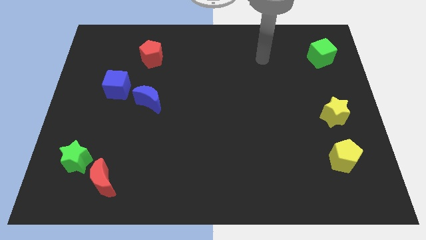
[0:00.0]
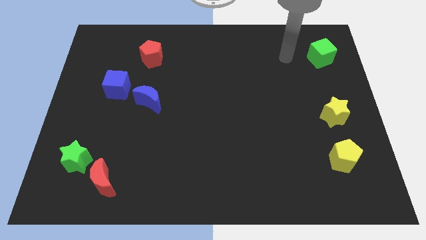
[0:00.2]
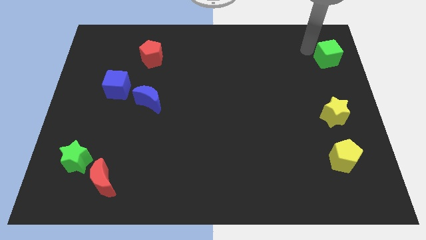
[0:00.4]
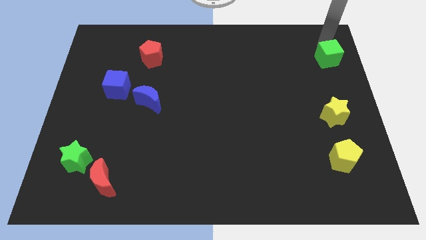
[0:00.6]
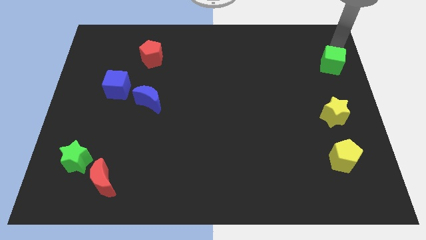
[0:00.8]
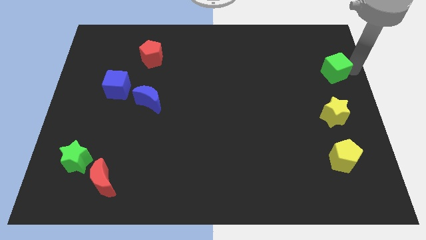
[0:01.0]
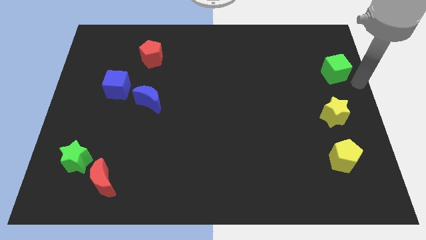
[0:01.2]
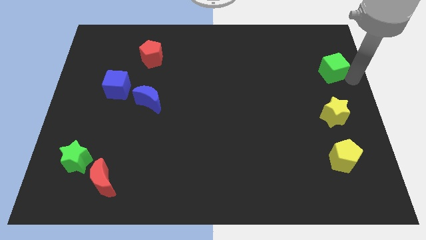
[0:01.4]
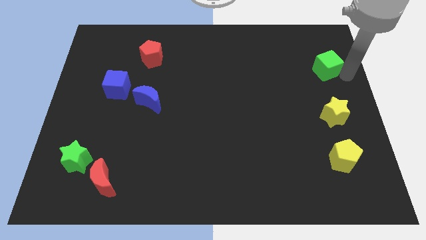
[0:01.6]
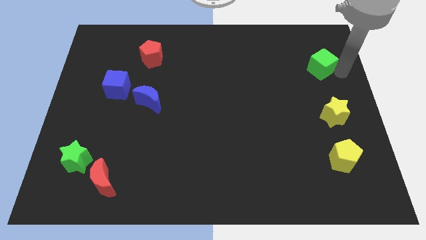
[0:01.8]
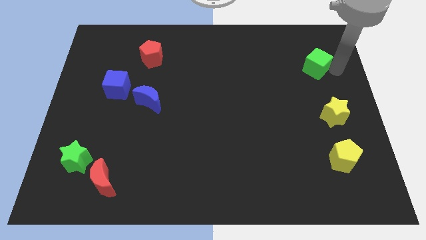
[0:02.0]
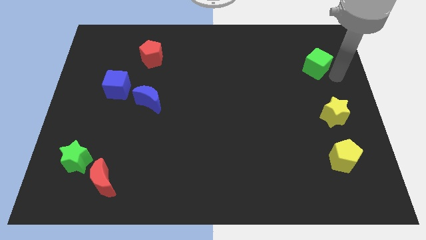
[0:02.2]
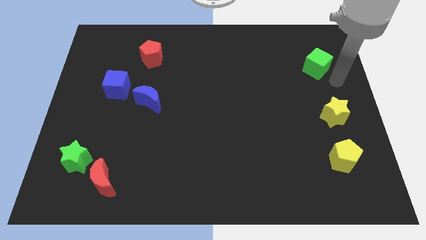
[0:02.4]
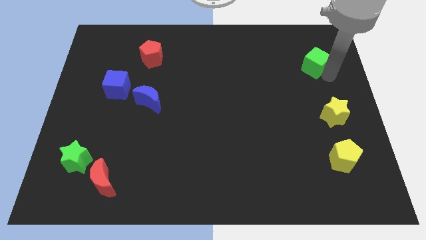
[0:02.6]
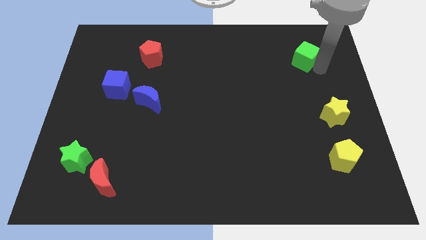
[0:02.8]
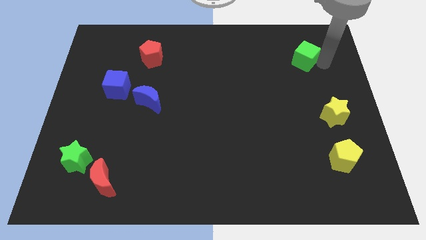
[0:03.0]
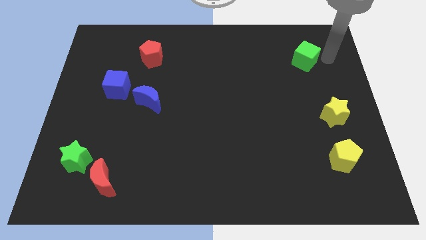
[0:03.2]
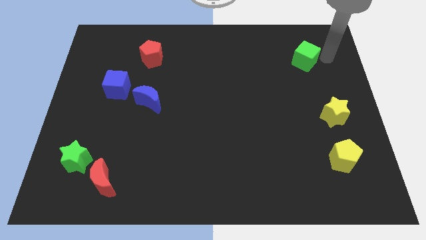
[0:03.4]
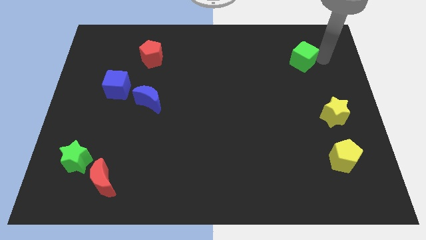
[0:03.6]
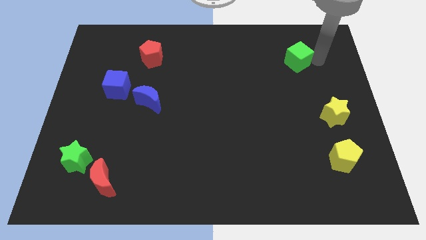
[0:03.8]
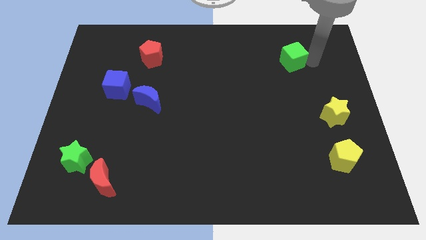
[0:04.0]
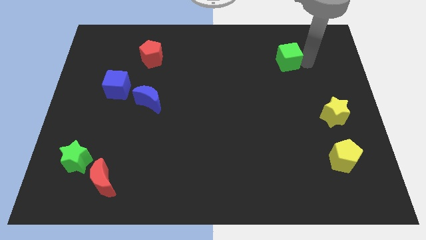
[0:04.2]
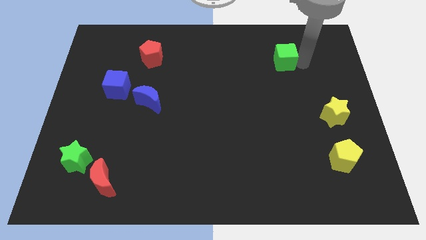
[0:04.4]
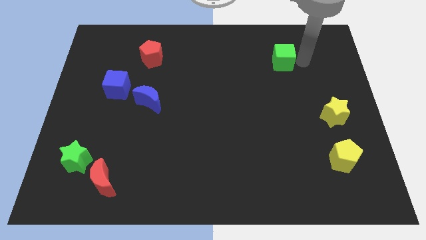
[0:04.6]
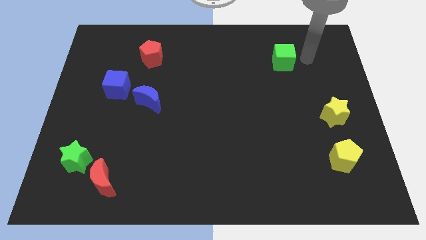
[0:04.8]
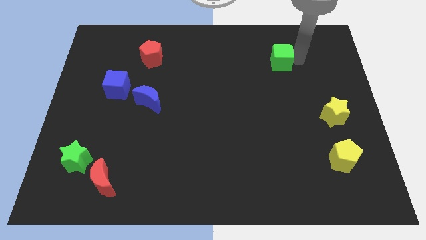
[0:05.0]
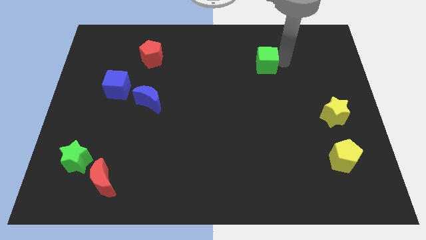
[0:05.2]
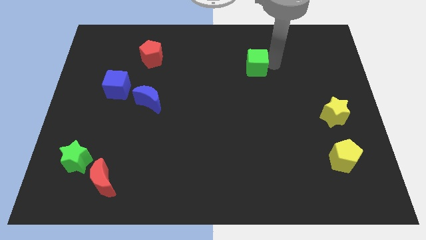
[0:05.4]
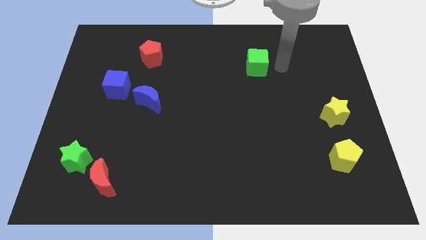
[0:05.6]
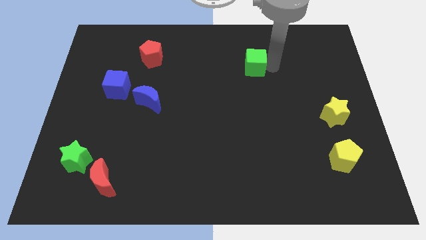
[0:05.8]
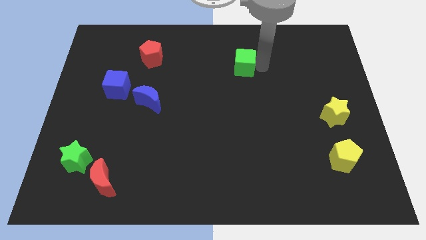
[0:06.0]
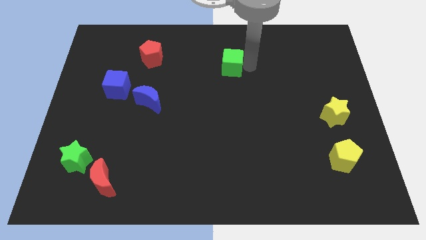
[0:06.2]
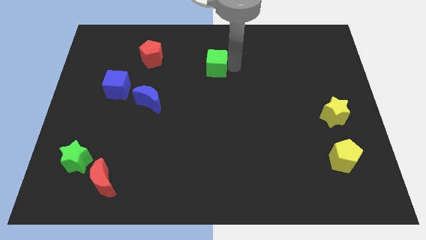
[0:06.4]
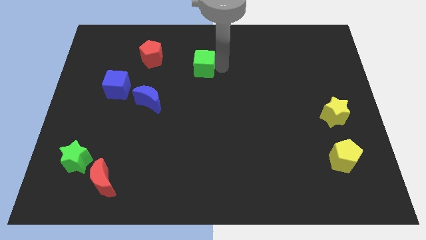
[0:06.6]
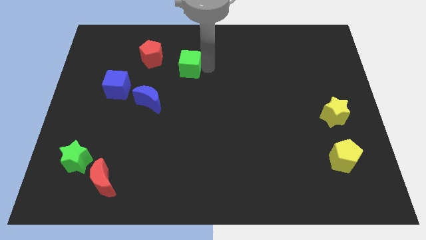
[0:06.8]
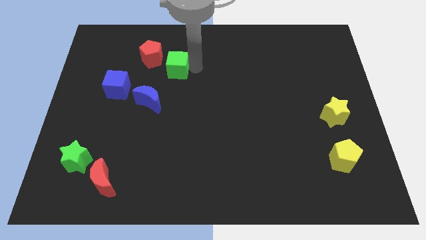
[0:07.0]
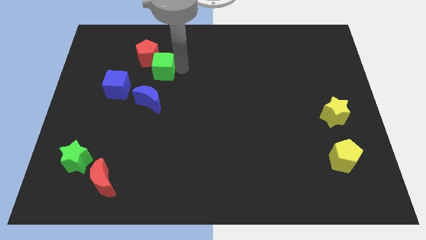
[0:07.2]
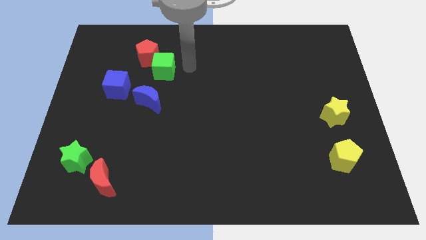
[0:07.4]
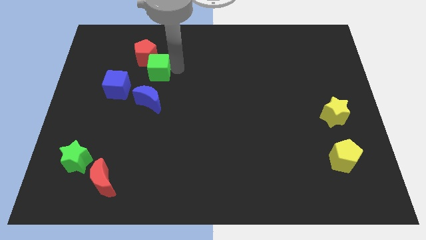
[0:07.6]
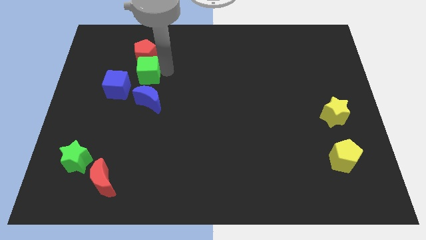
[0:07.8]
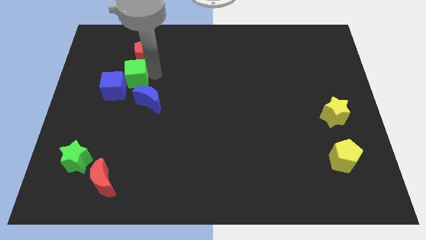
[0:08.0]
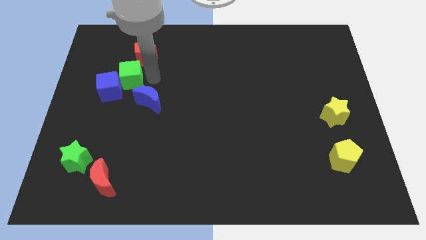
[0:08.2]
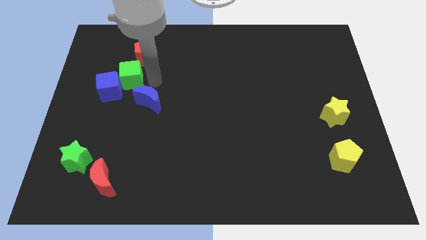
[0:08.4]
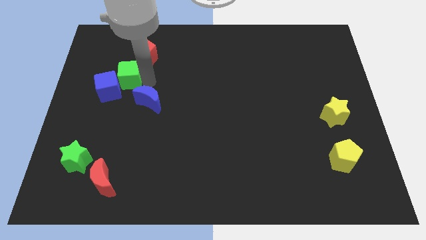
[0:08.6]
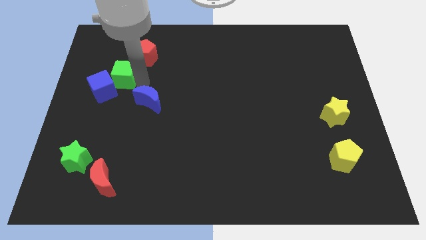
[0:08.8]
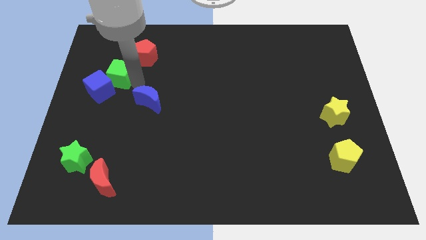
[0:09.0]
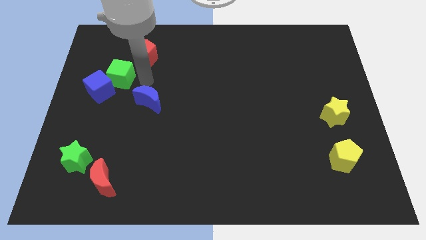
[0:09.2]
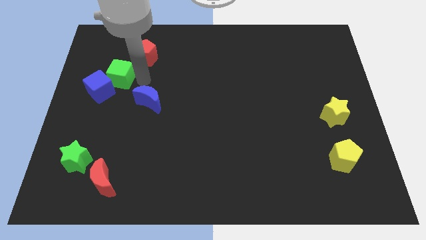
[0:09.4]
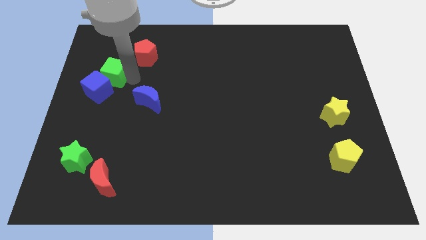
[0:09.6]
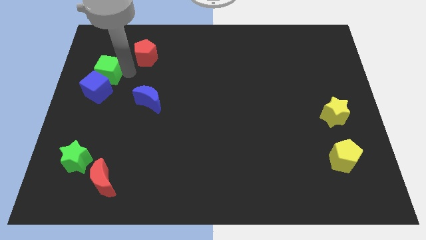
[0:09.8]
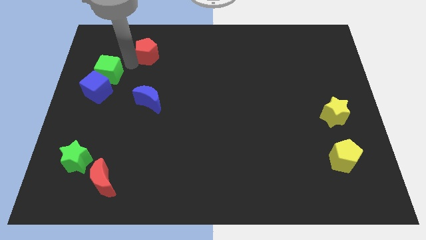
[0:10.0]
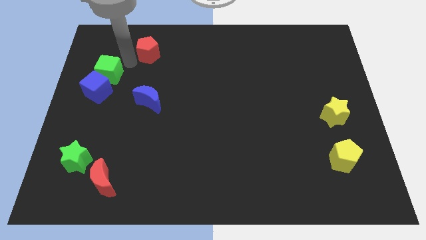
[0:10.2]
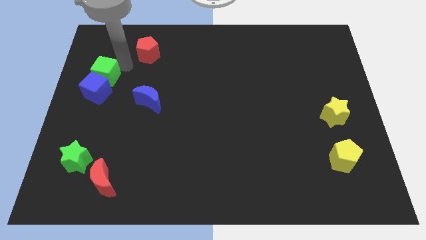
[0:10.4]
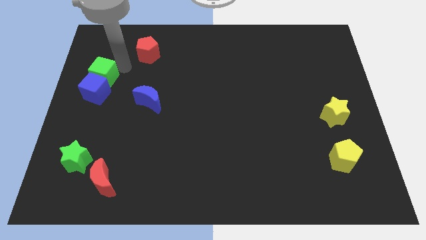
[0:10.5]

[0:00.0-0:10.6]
slide the green cube to the left side

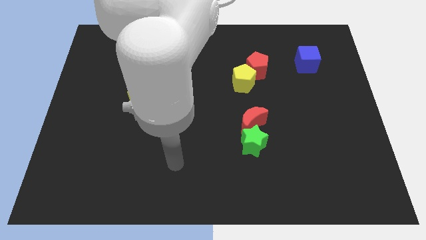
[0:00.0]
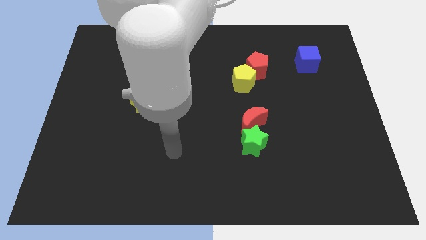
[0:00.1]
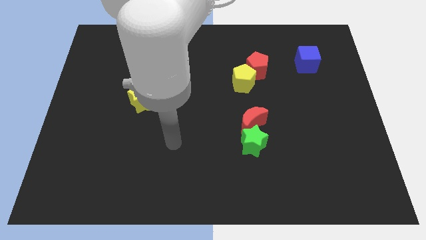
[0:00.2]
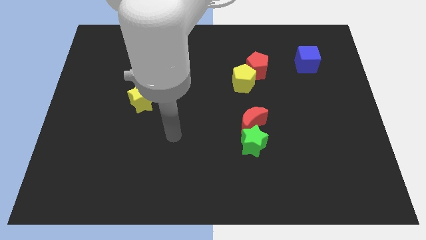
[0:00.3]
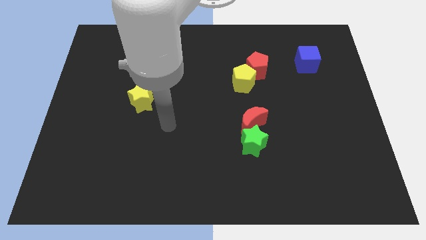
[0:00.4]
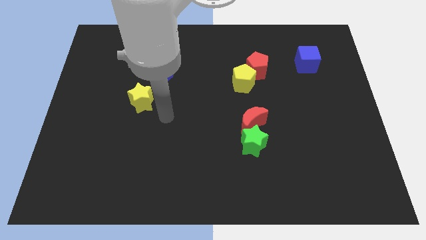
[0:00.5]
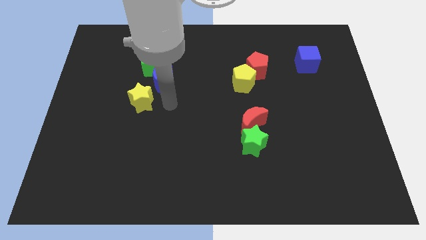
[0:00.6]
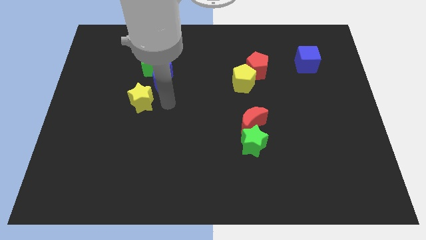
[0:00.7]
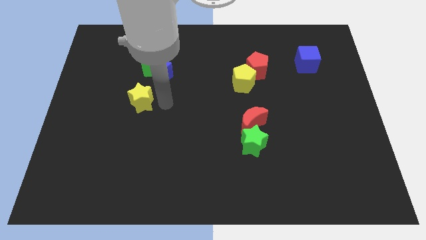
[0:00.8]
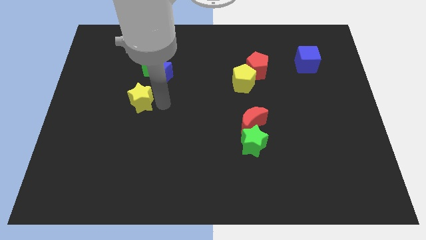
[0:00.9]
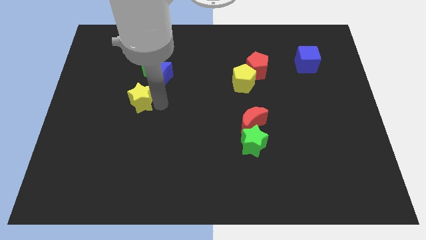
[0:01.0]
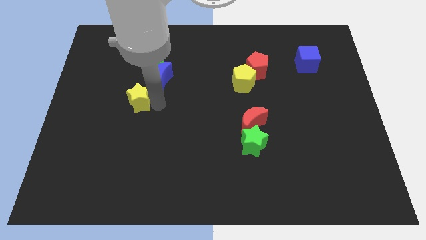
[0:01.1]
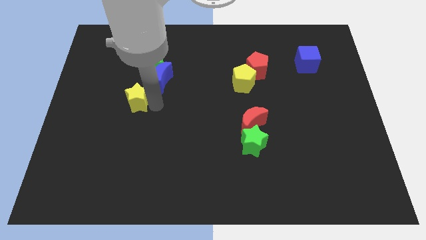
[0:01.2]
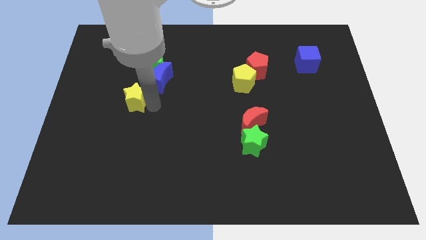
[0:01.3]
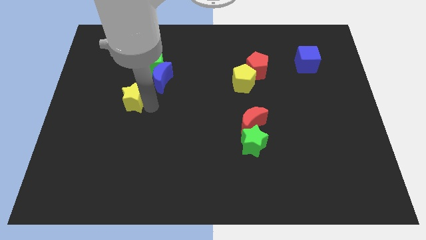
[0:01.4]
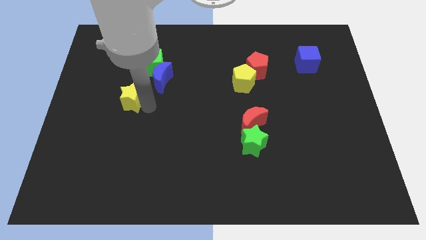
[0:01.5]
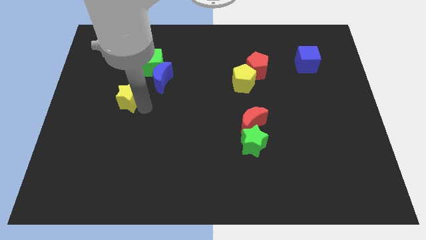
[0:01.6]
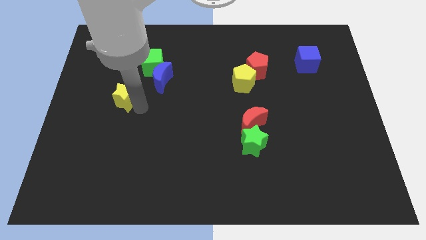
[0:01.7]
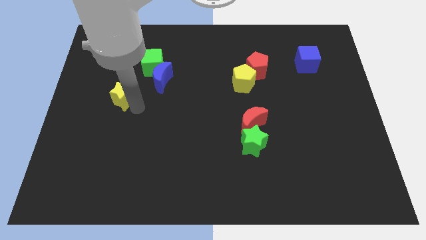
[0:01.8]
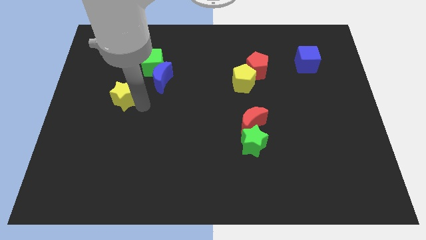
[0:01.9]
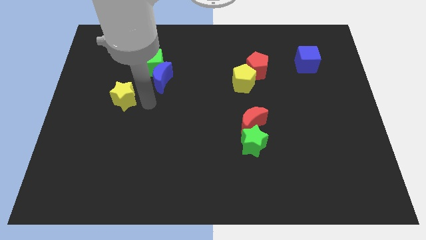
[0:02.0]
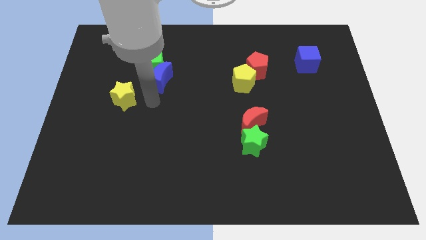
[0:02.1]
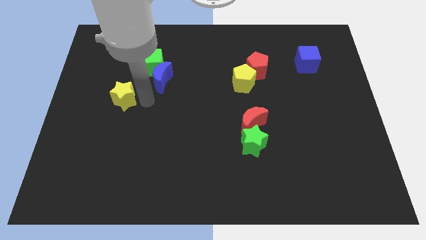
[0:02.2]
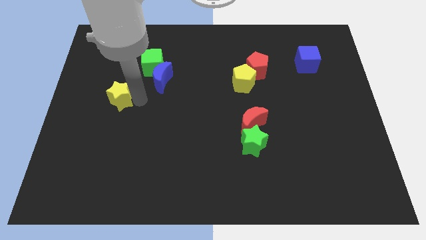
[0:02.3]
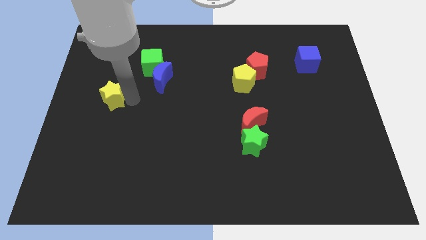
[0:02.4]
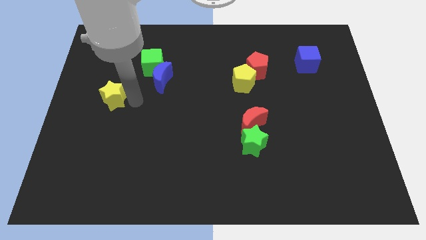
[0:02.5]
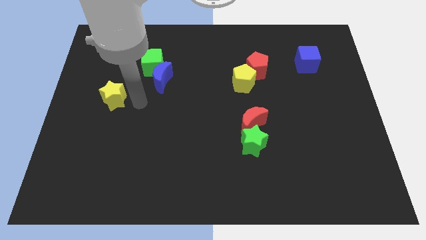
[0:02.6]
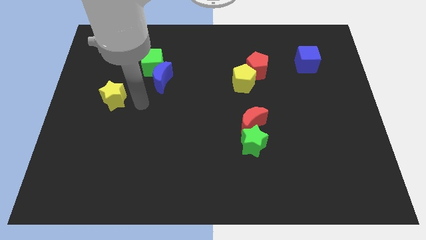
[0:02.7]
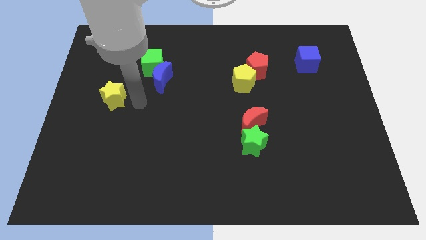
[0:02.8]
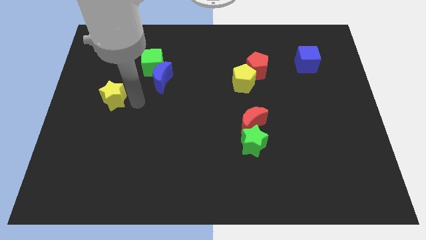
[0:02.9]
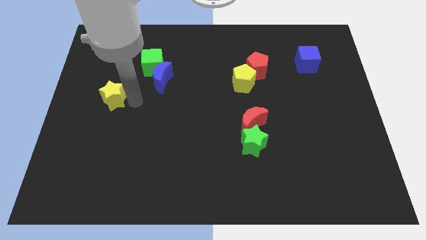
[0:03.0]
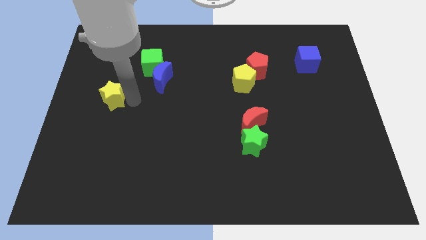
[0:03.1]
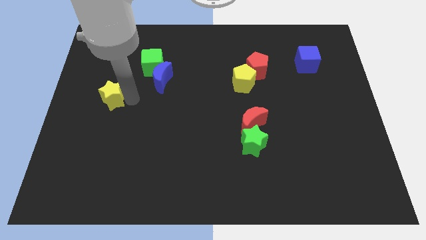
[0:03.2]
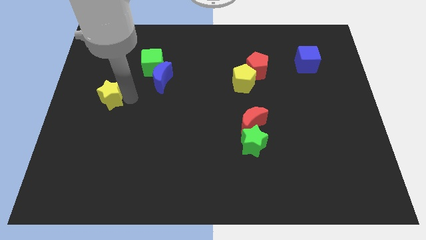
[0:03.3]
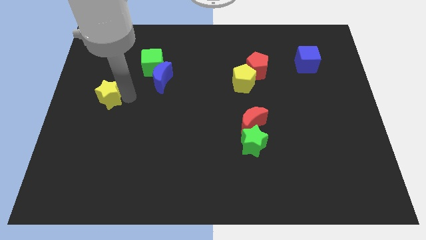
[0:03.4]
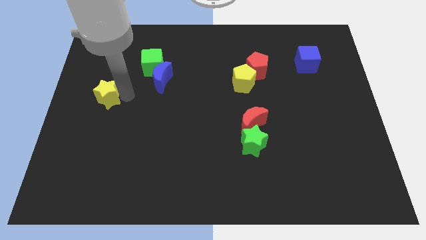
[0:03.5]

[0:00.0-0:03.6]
slide the yellow star to the center left
